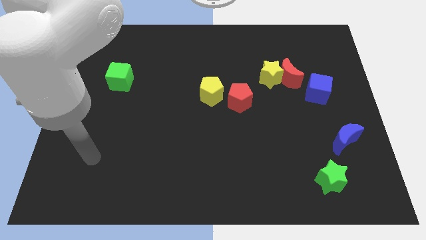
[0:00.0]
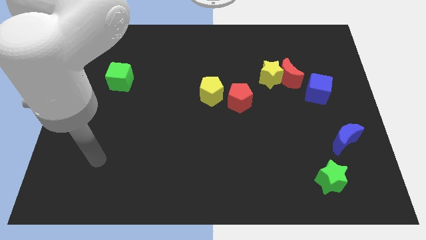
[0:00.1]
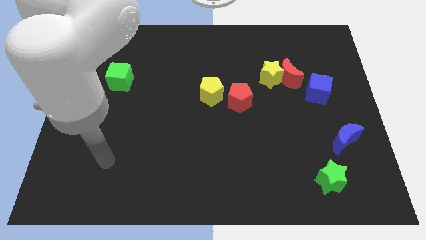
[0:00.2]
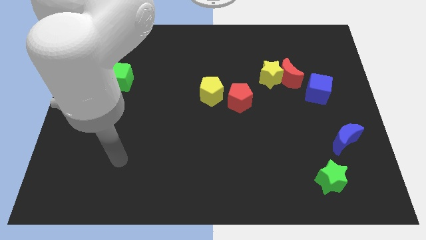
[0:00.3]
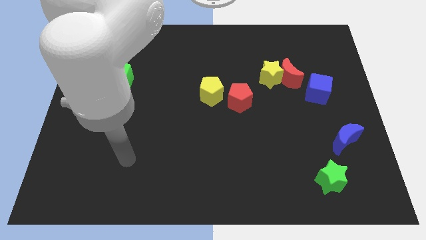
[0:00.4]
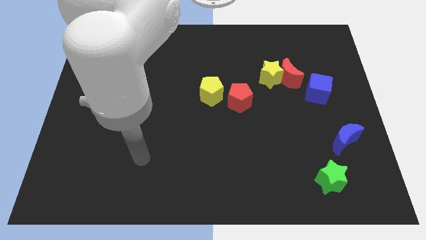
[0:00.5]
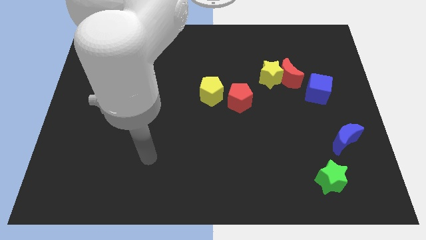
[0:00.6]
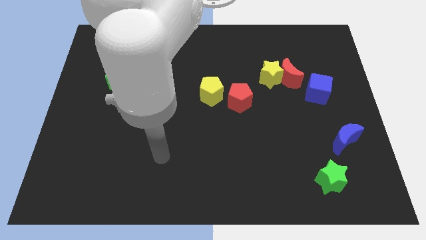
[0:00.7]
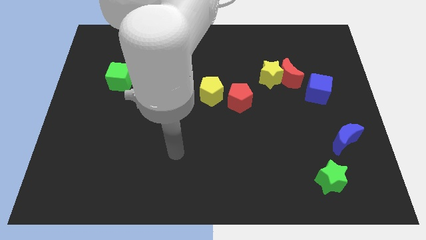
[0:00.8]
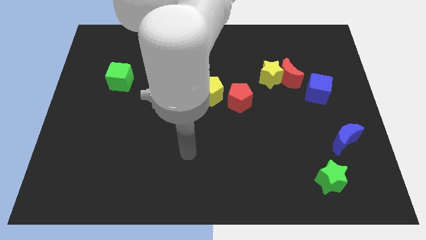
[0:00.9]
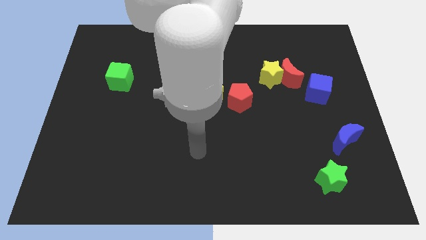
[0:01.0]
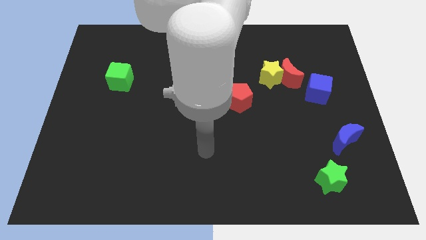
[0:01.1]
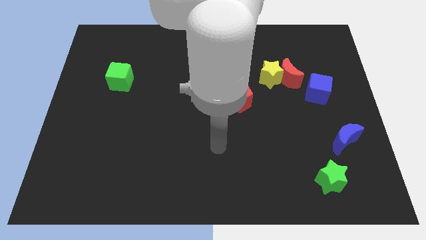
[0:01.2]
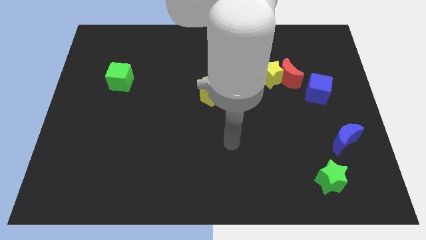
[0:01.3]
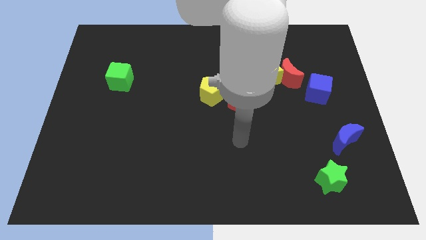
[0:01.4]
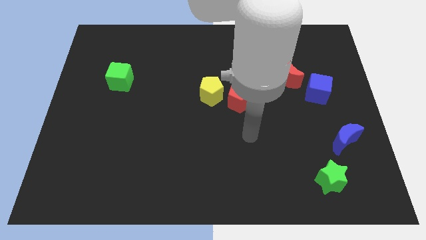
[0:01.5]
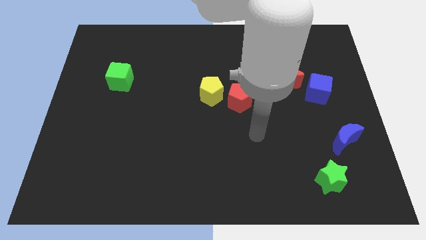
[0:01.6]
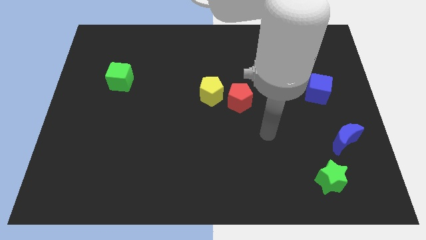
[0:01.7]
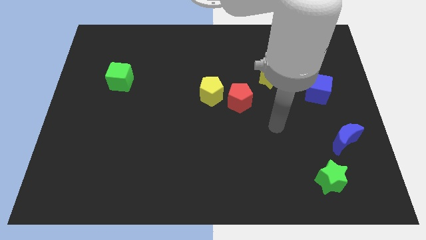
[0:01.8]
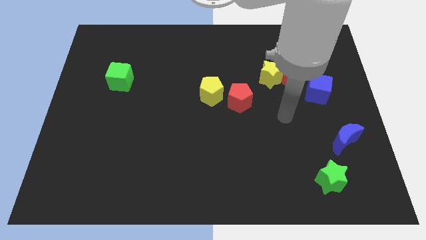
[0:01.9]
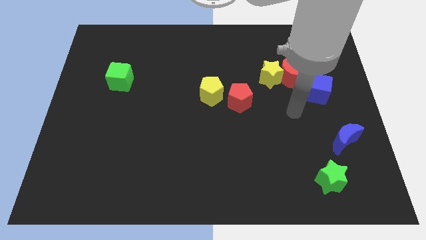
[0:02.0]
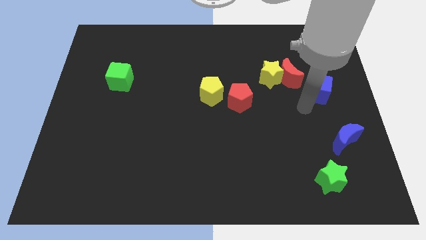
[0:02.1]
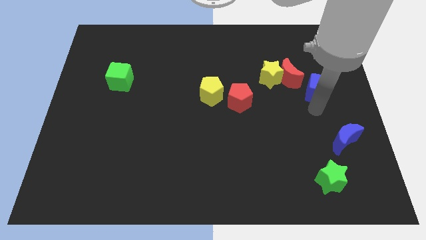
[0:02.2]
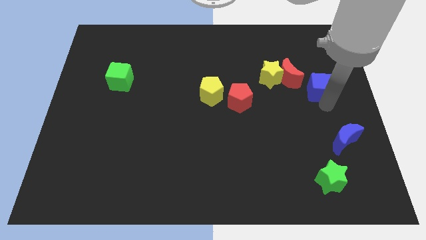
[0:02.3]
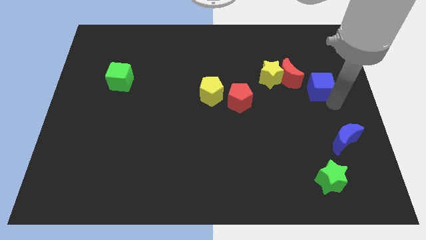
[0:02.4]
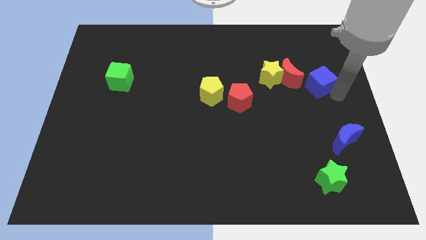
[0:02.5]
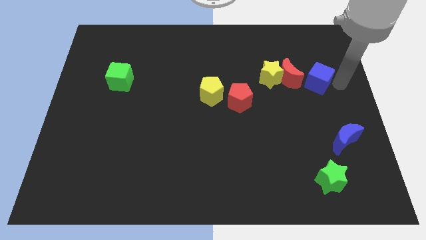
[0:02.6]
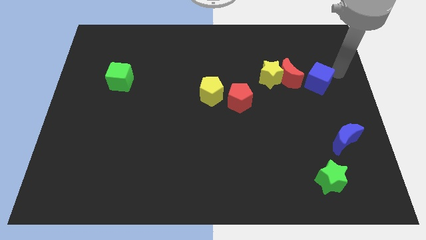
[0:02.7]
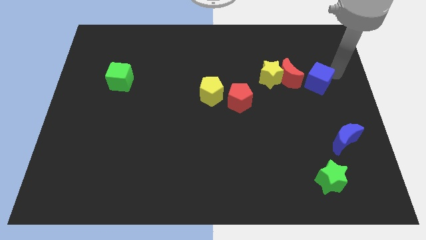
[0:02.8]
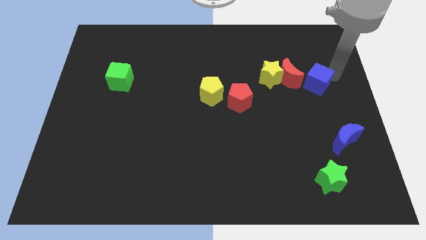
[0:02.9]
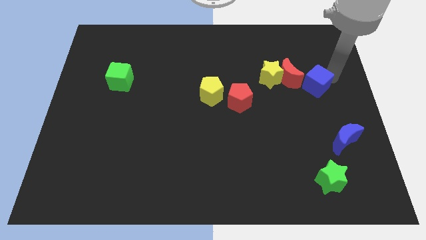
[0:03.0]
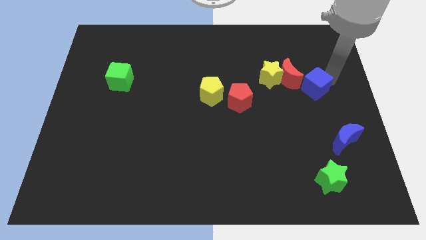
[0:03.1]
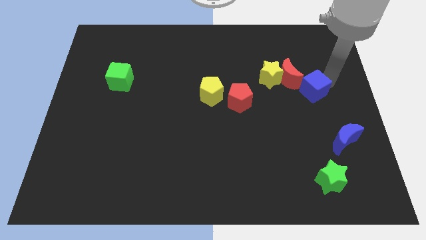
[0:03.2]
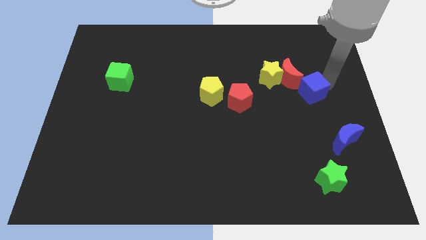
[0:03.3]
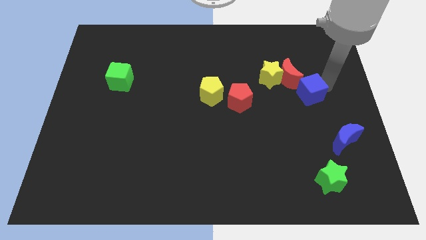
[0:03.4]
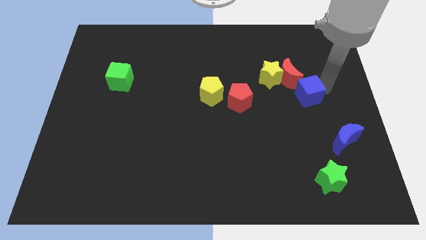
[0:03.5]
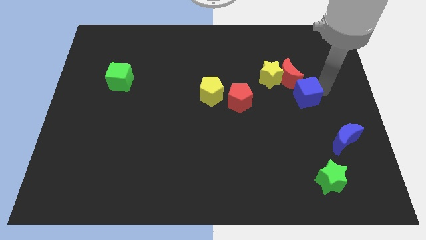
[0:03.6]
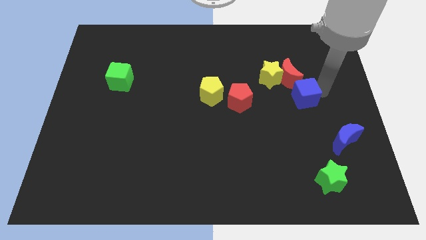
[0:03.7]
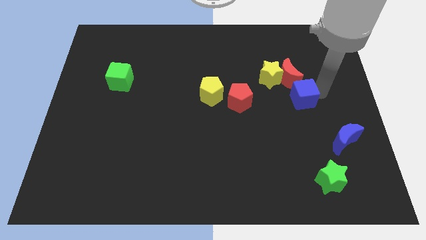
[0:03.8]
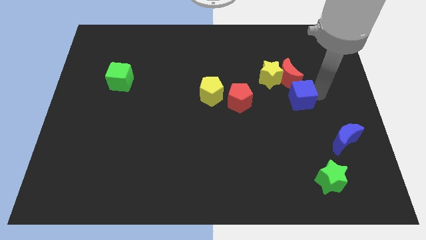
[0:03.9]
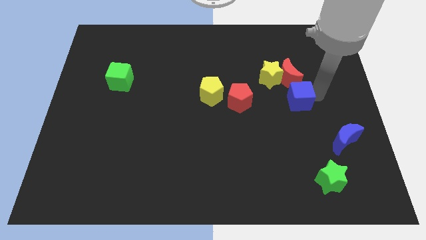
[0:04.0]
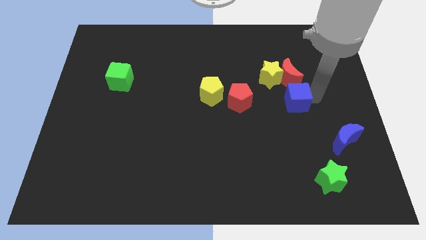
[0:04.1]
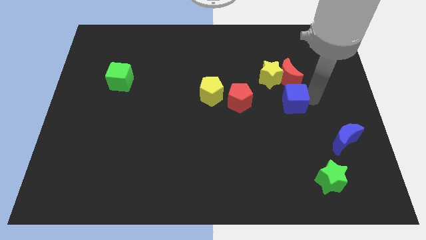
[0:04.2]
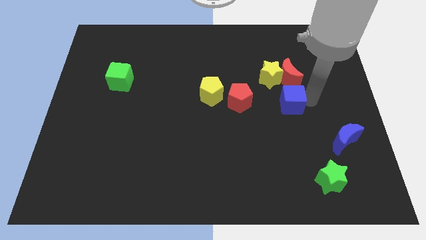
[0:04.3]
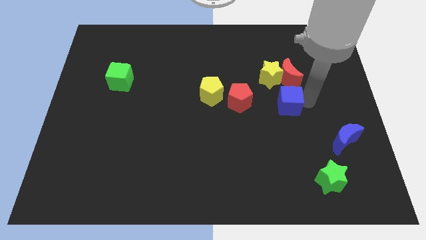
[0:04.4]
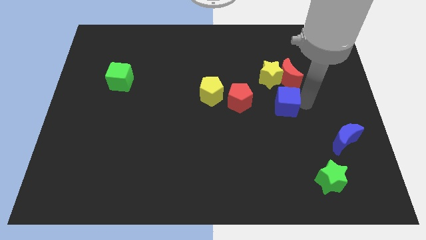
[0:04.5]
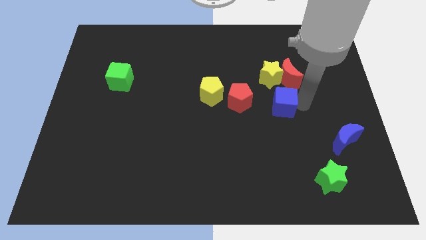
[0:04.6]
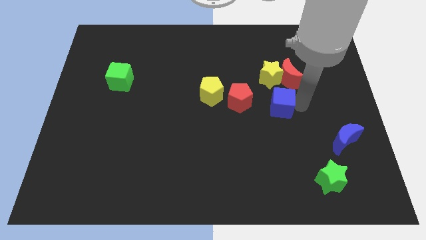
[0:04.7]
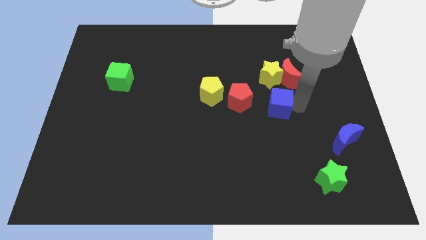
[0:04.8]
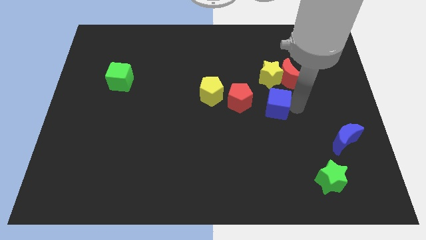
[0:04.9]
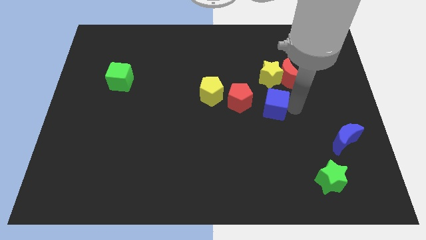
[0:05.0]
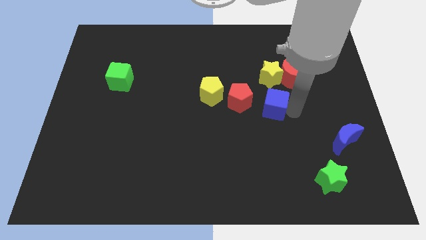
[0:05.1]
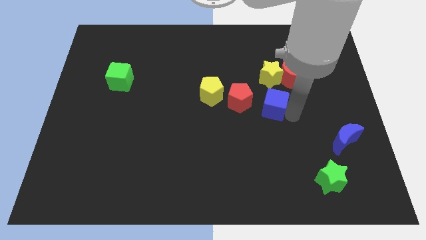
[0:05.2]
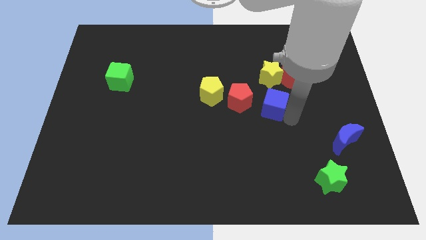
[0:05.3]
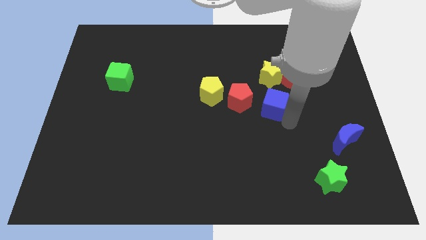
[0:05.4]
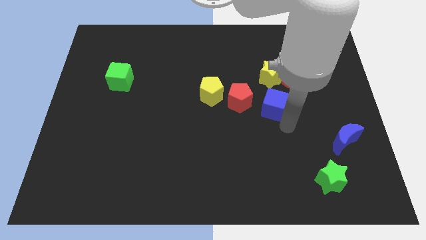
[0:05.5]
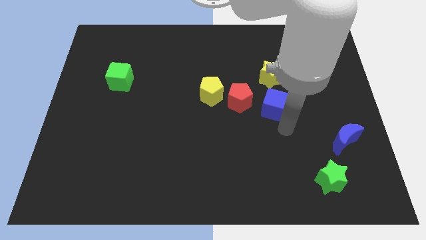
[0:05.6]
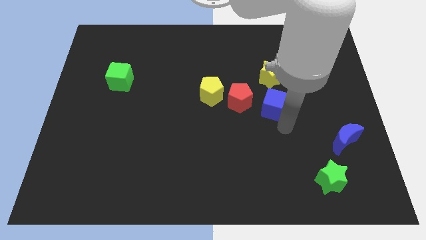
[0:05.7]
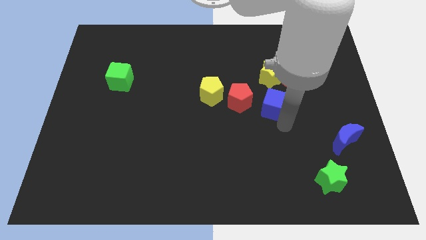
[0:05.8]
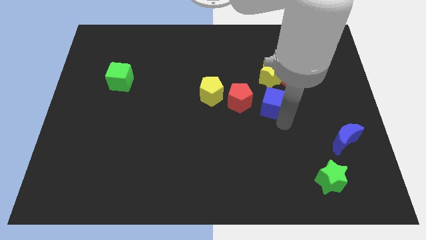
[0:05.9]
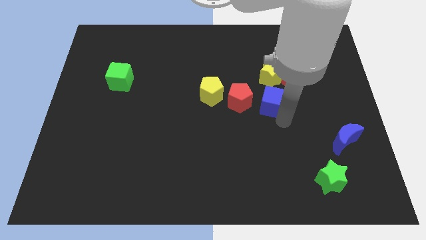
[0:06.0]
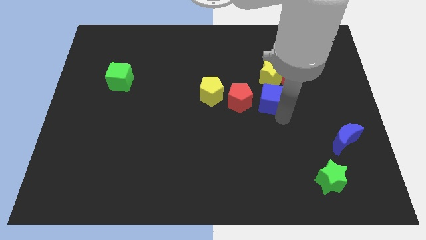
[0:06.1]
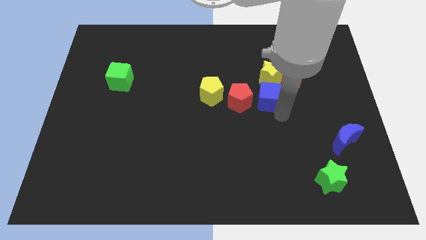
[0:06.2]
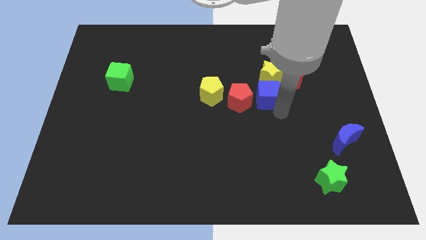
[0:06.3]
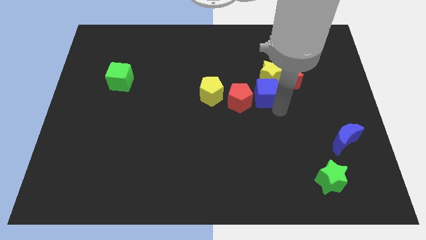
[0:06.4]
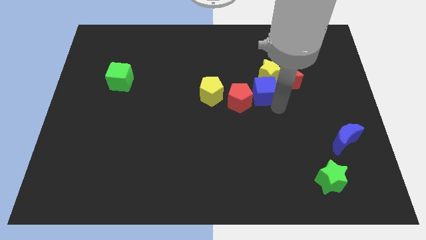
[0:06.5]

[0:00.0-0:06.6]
put the blue cube close to the red pentagon

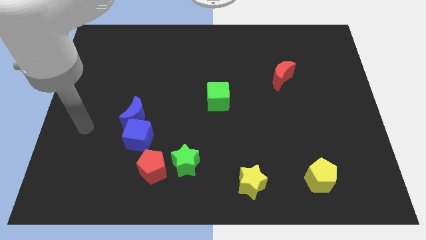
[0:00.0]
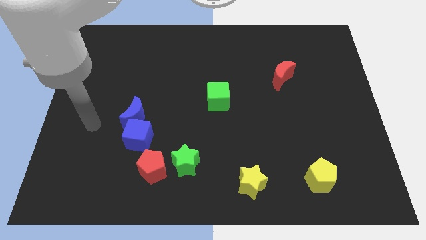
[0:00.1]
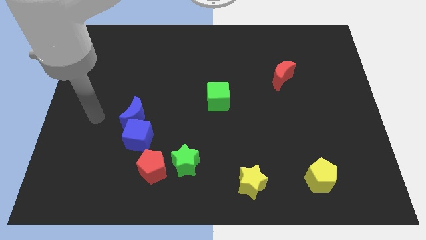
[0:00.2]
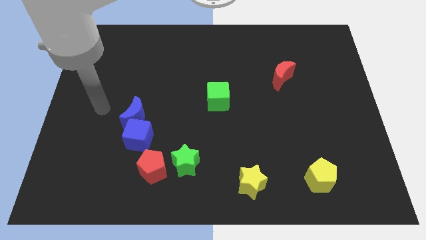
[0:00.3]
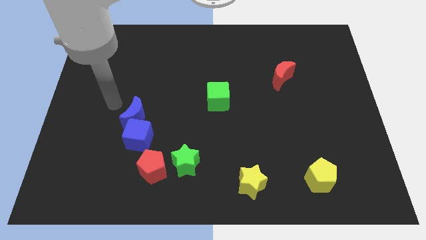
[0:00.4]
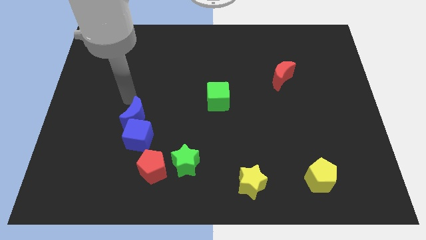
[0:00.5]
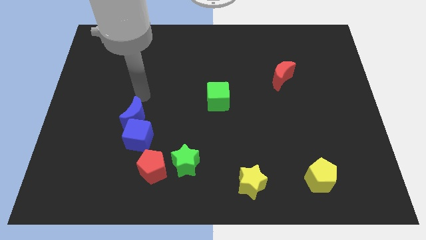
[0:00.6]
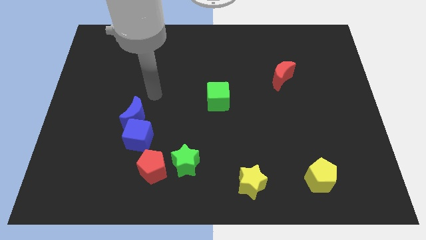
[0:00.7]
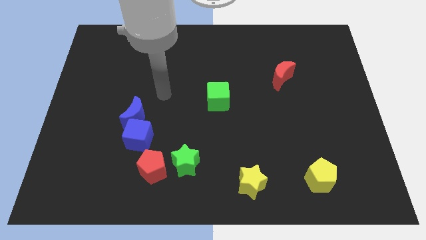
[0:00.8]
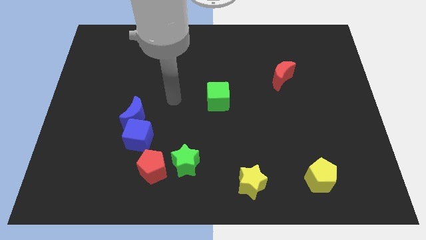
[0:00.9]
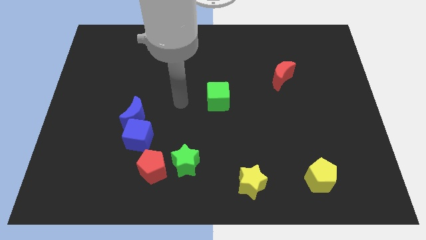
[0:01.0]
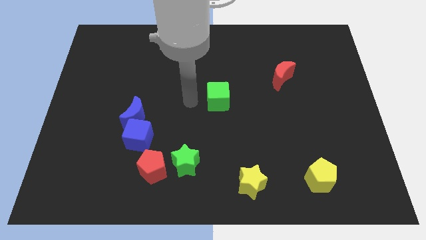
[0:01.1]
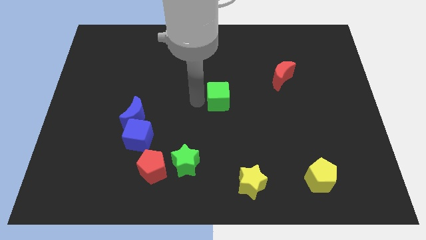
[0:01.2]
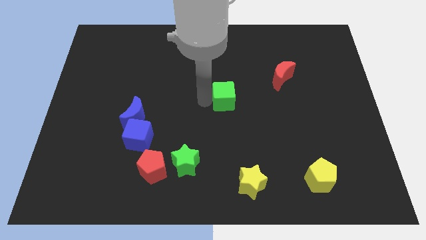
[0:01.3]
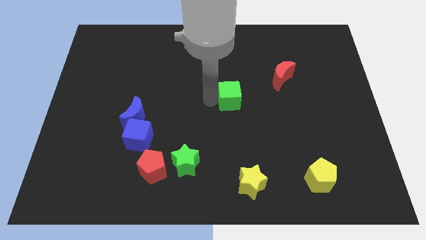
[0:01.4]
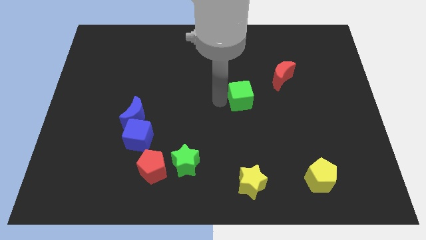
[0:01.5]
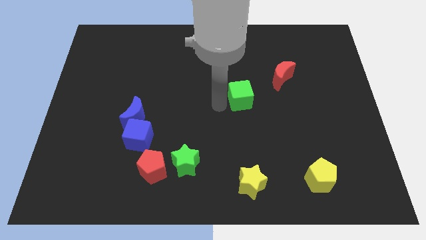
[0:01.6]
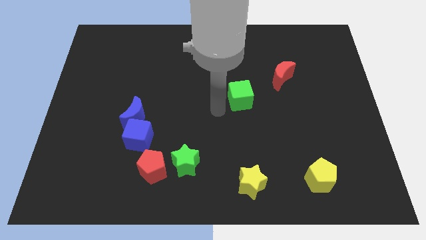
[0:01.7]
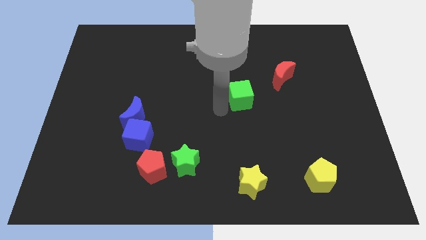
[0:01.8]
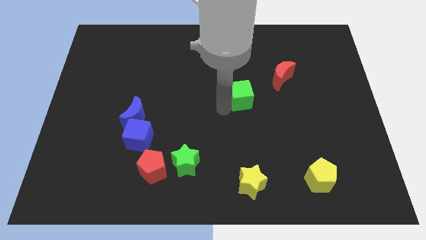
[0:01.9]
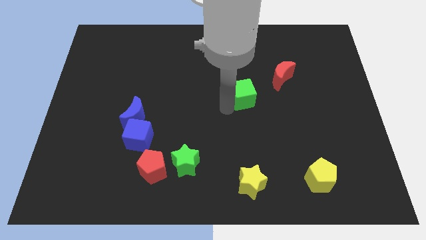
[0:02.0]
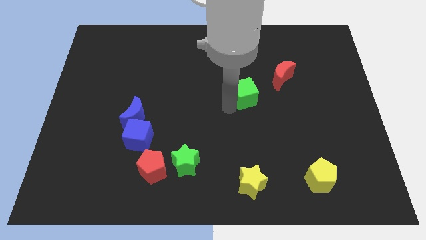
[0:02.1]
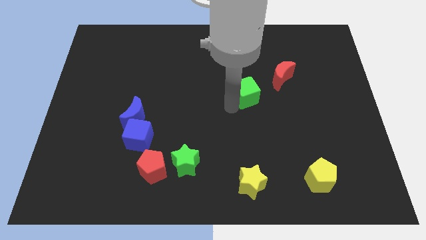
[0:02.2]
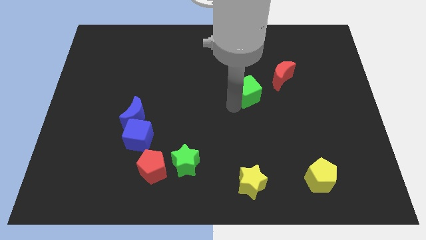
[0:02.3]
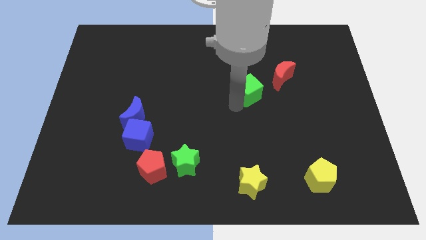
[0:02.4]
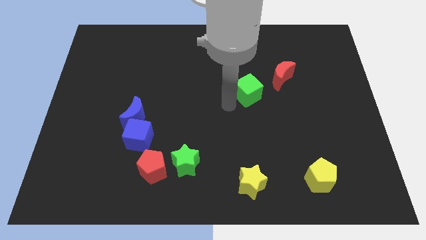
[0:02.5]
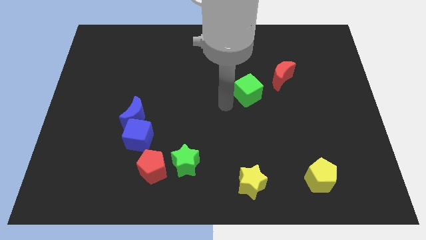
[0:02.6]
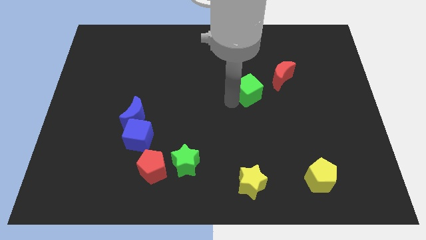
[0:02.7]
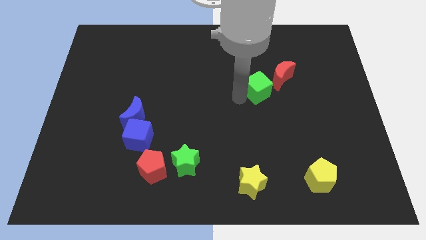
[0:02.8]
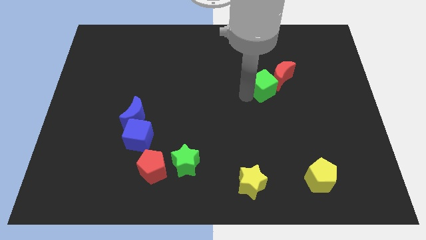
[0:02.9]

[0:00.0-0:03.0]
move the green cube next to the red moon
